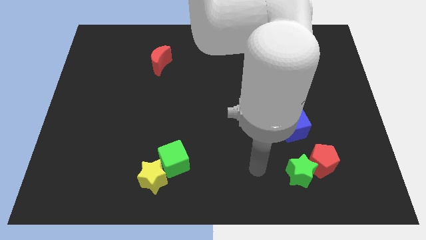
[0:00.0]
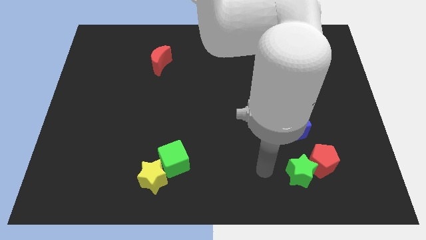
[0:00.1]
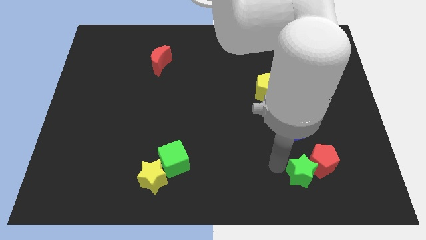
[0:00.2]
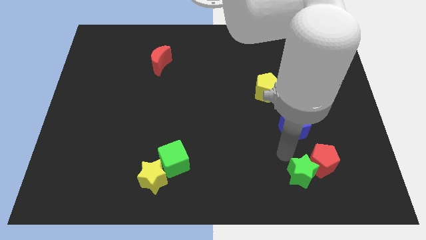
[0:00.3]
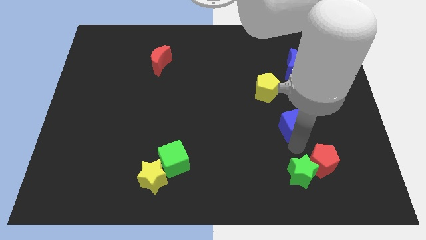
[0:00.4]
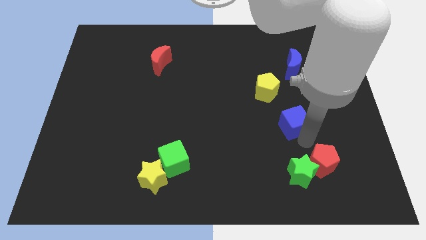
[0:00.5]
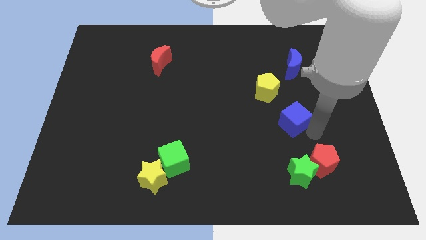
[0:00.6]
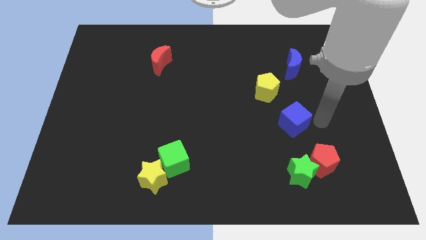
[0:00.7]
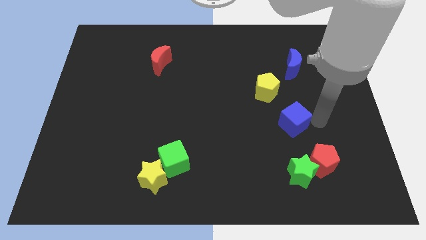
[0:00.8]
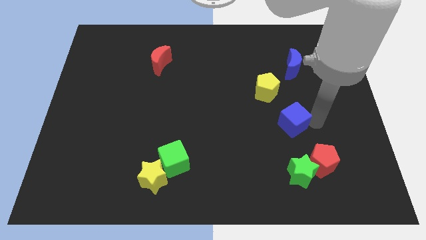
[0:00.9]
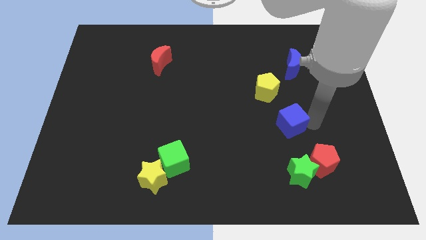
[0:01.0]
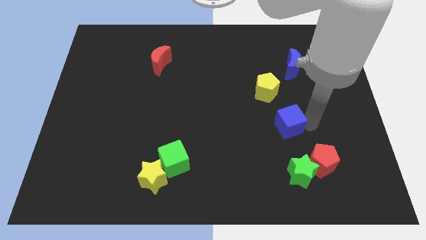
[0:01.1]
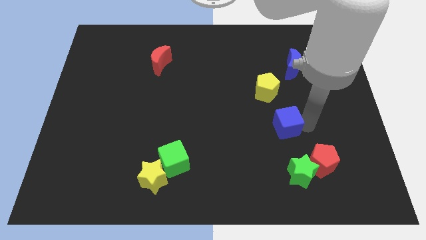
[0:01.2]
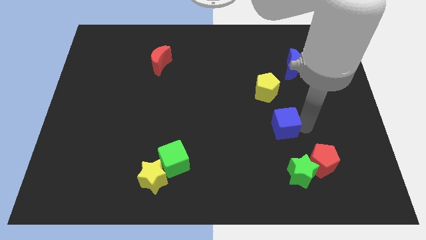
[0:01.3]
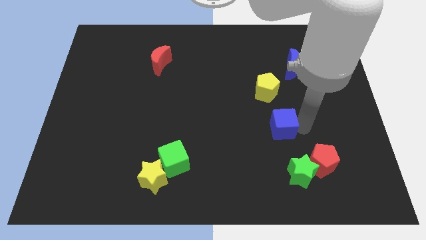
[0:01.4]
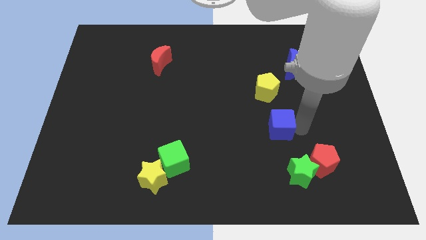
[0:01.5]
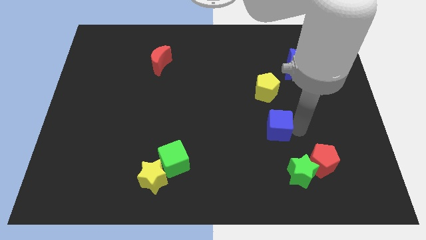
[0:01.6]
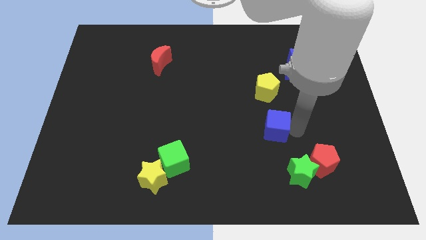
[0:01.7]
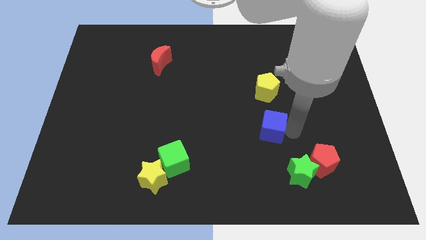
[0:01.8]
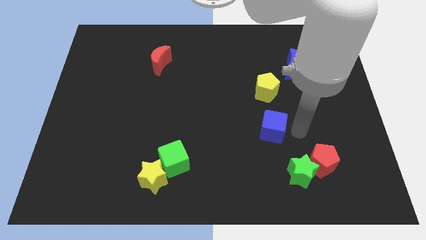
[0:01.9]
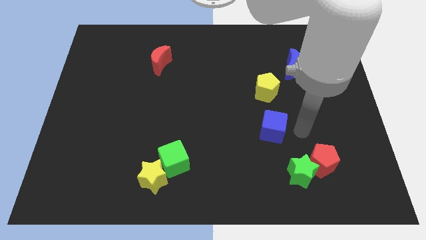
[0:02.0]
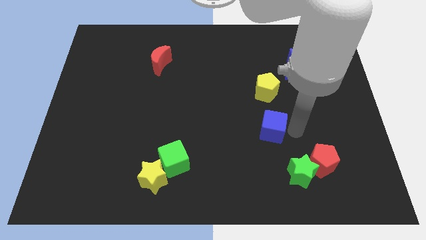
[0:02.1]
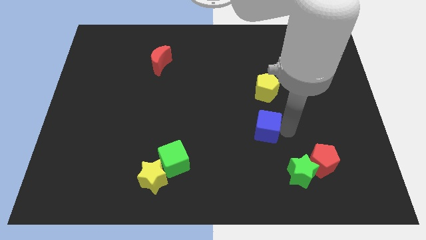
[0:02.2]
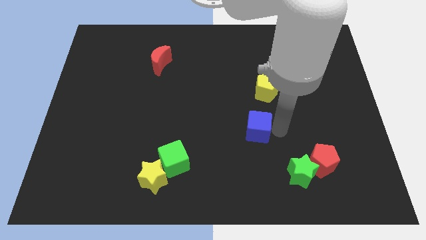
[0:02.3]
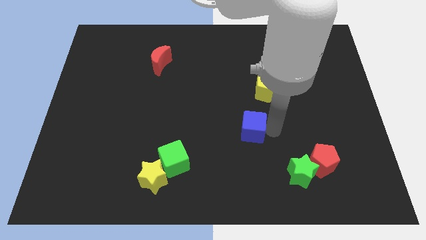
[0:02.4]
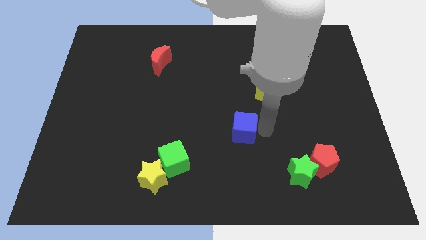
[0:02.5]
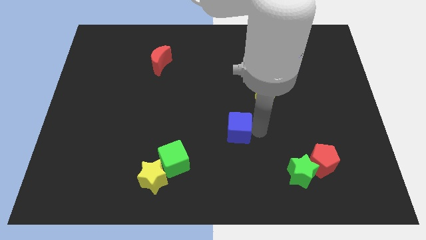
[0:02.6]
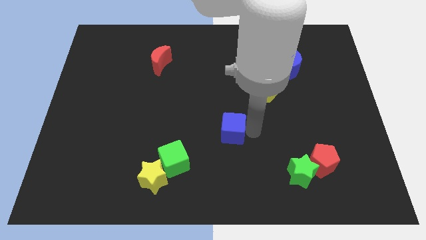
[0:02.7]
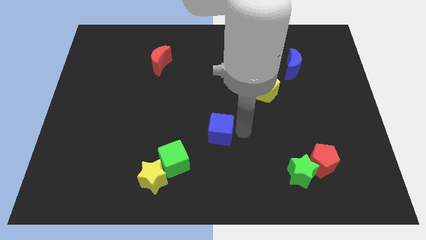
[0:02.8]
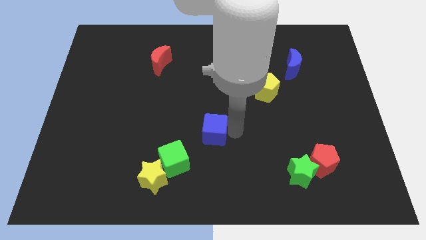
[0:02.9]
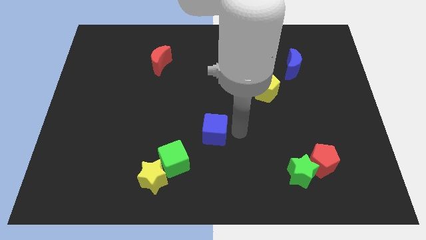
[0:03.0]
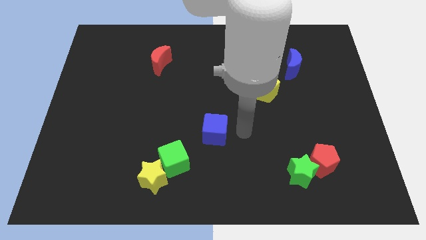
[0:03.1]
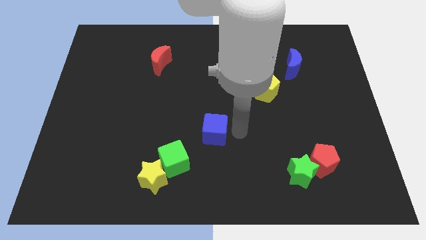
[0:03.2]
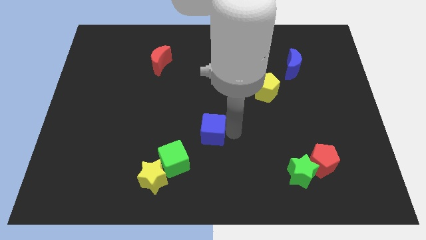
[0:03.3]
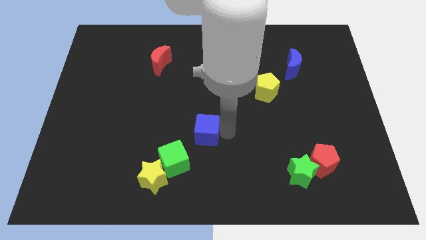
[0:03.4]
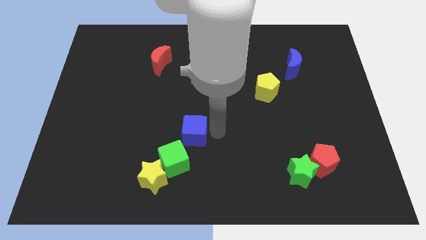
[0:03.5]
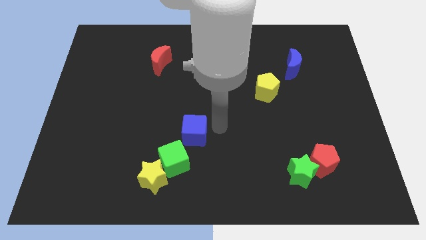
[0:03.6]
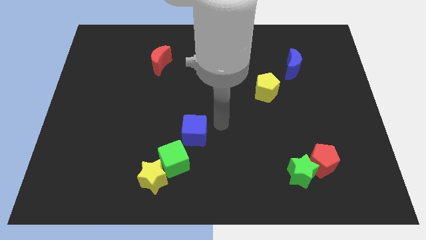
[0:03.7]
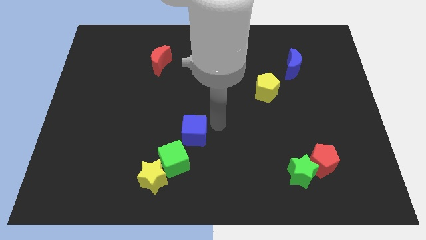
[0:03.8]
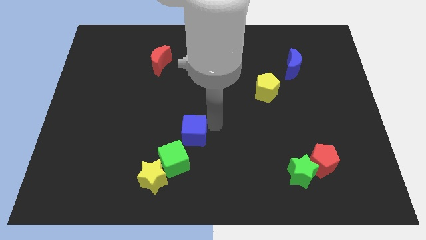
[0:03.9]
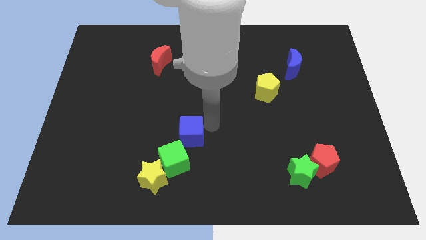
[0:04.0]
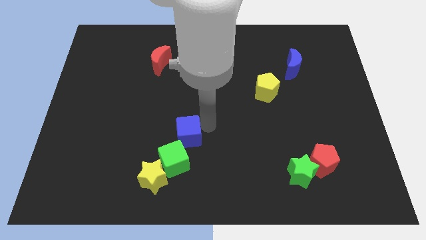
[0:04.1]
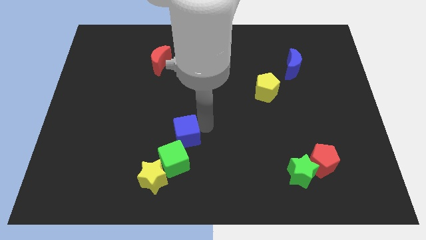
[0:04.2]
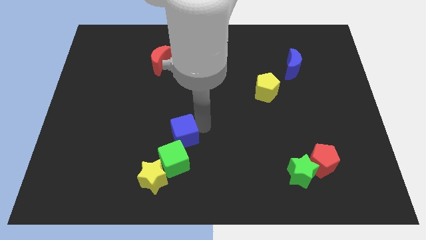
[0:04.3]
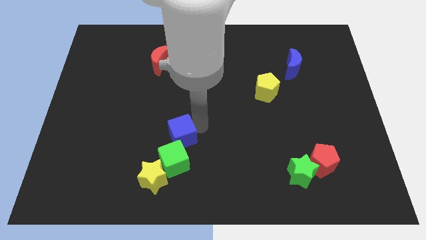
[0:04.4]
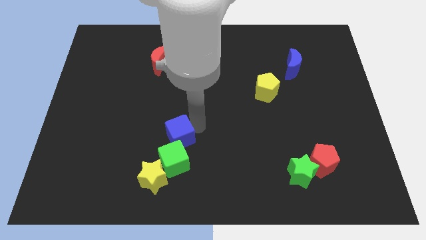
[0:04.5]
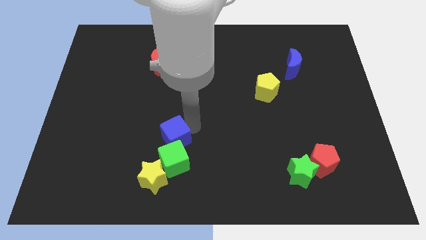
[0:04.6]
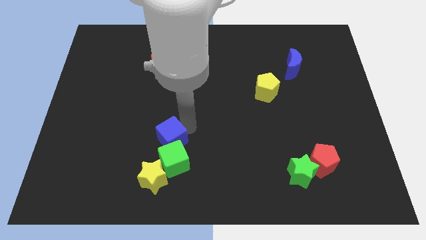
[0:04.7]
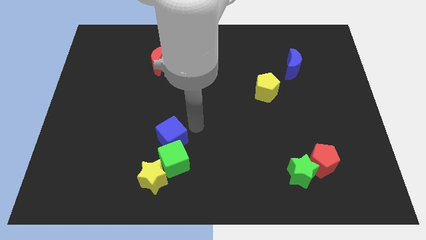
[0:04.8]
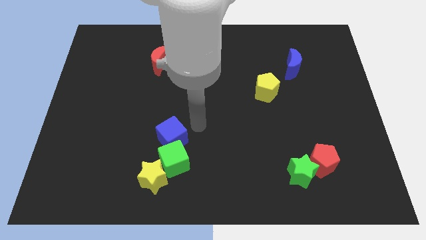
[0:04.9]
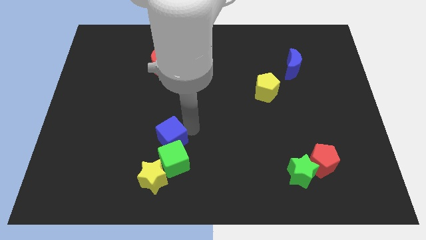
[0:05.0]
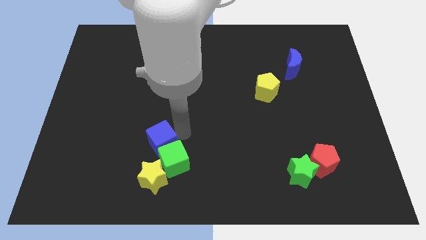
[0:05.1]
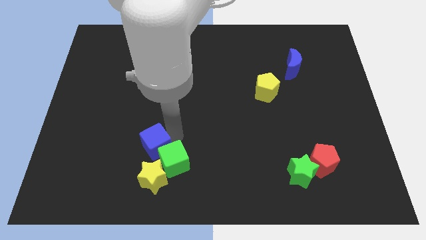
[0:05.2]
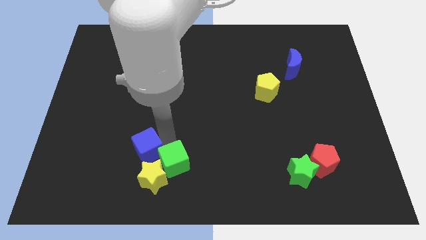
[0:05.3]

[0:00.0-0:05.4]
move the blue cube diagonally up and to the left of the yellow star

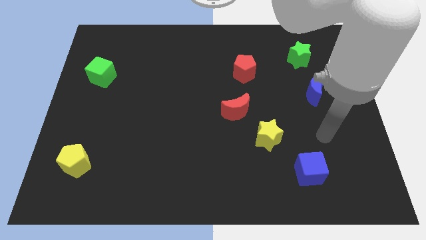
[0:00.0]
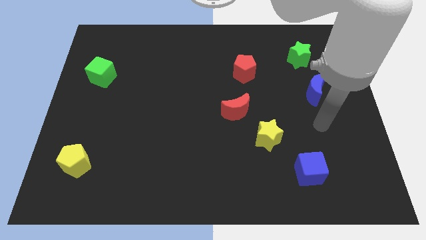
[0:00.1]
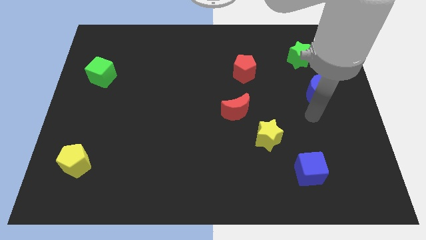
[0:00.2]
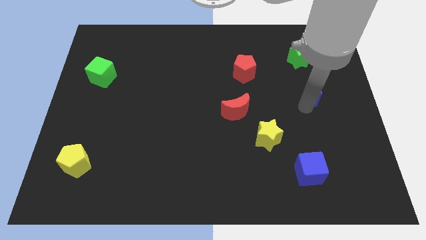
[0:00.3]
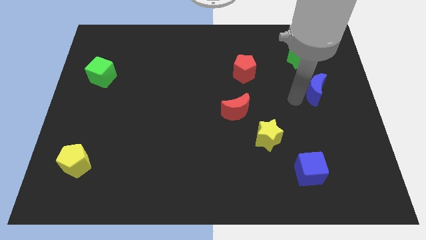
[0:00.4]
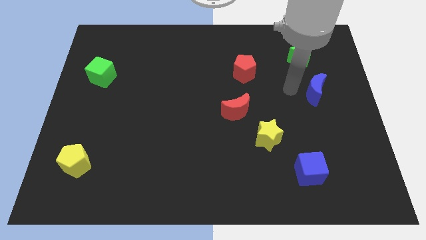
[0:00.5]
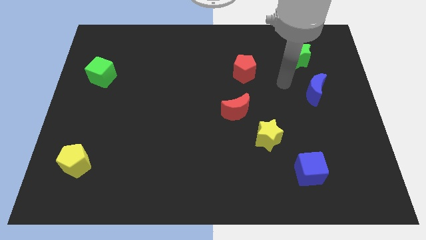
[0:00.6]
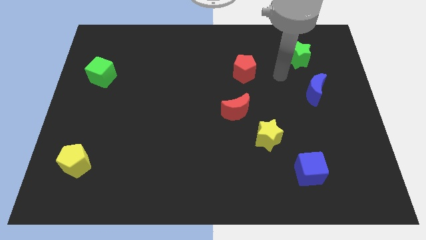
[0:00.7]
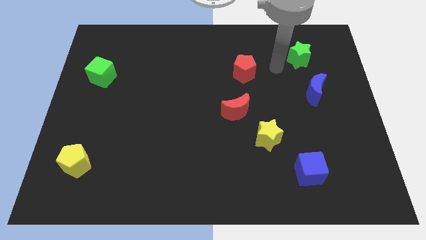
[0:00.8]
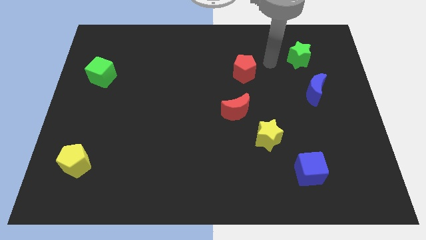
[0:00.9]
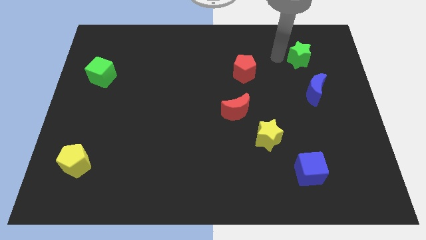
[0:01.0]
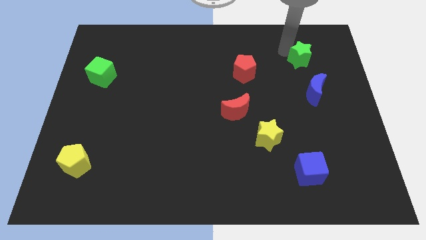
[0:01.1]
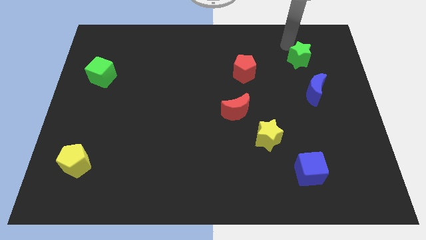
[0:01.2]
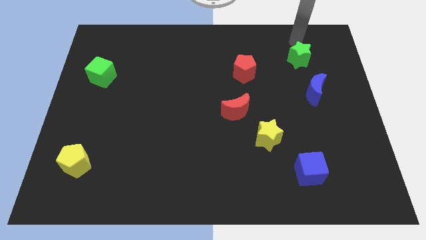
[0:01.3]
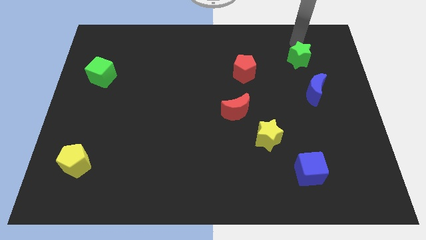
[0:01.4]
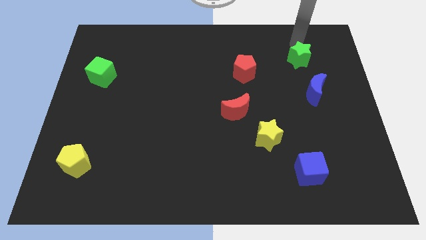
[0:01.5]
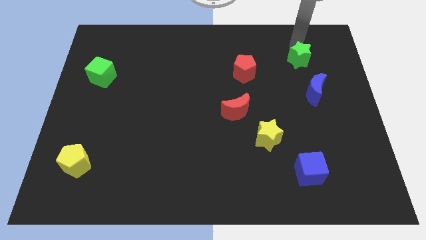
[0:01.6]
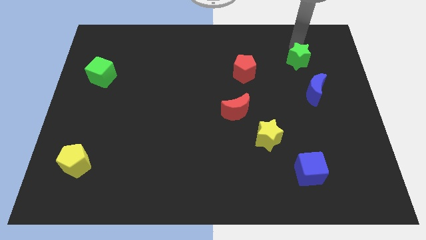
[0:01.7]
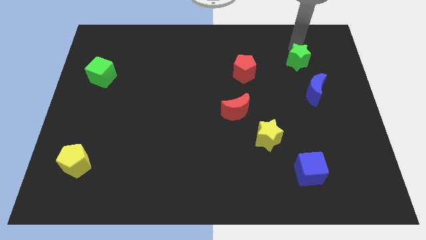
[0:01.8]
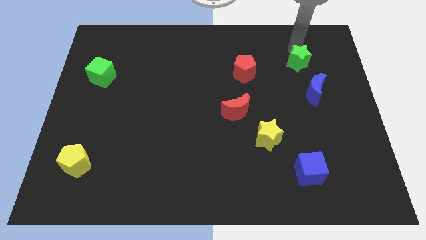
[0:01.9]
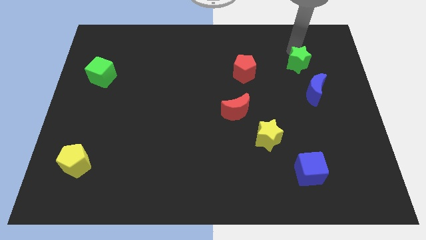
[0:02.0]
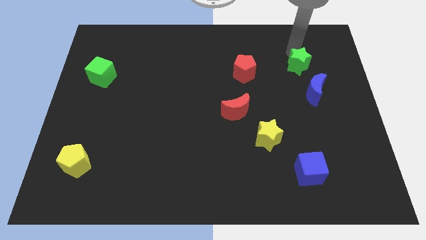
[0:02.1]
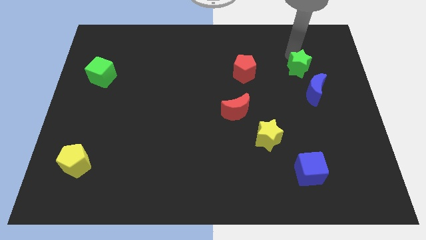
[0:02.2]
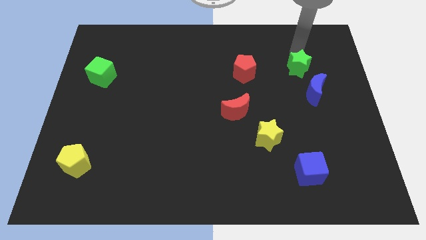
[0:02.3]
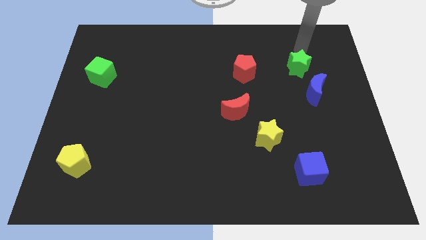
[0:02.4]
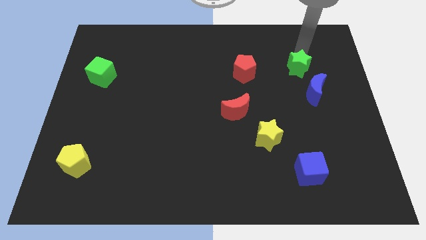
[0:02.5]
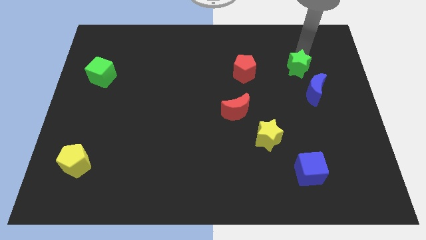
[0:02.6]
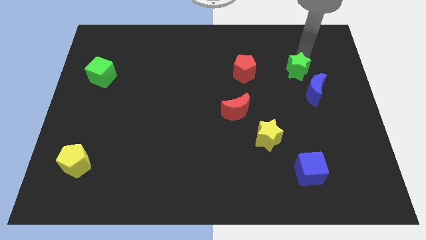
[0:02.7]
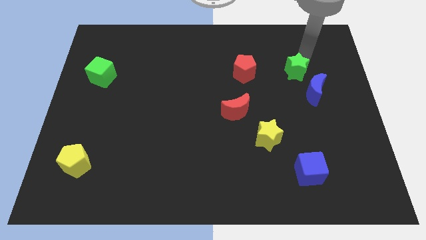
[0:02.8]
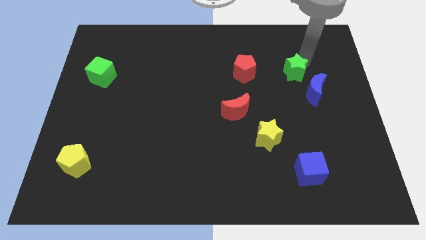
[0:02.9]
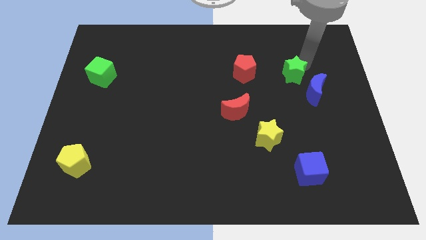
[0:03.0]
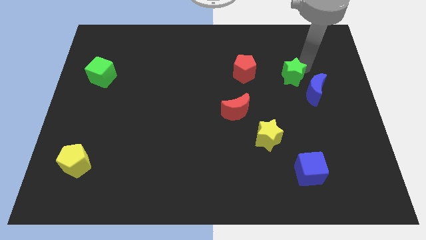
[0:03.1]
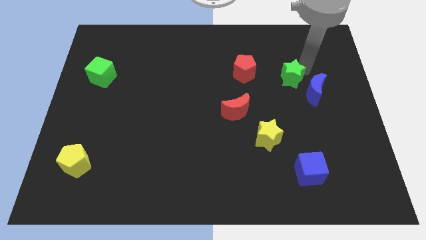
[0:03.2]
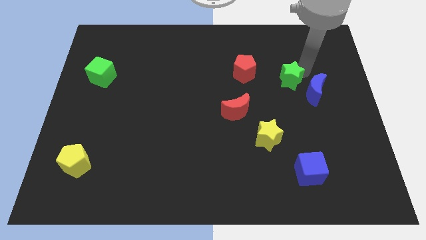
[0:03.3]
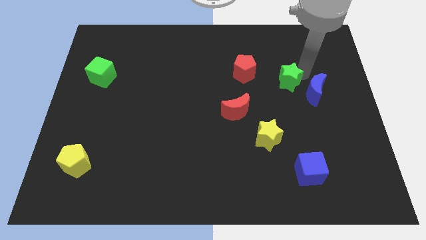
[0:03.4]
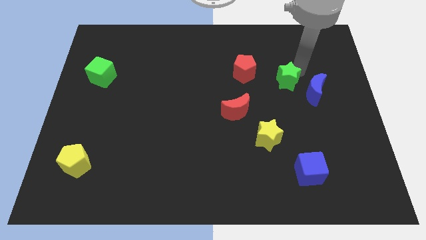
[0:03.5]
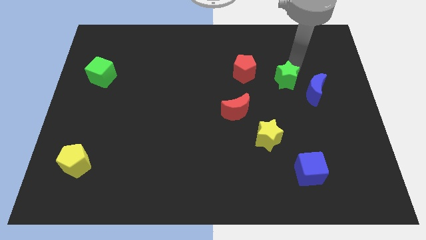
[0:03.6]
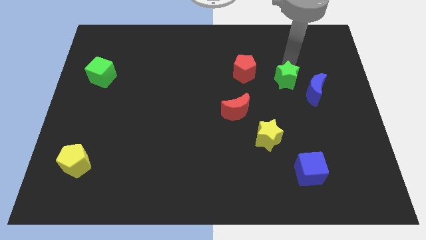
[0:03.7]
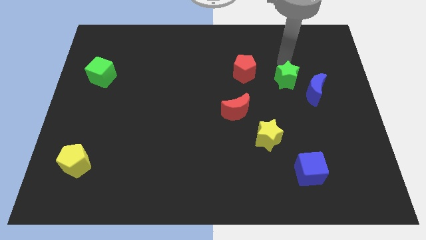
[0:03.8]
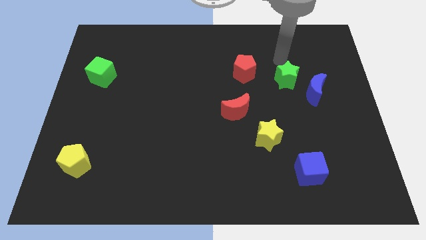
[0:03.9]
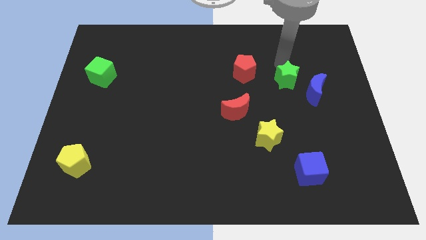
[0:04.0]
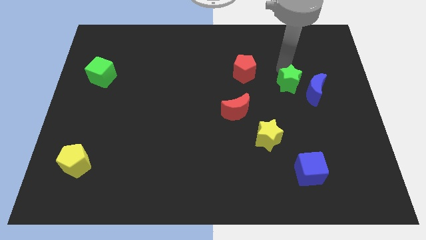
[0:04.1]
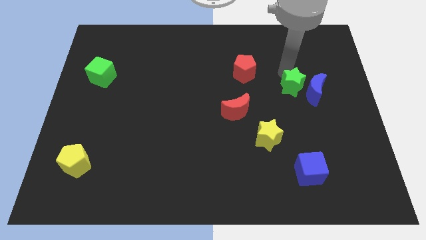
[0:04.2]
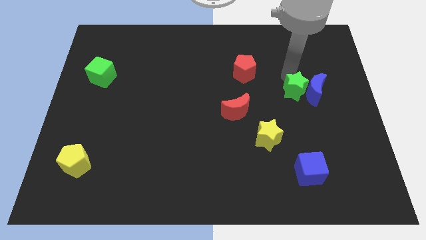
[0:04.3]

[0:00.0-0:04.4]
move the green star diagonally down and to the left of the blue moon
